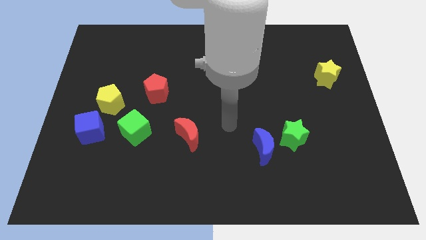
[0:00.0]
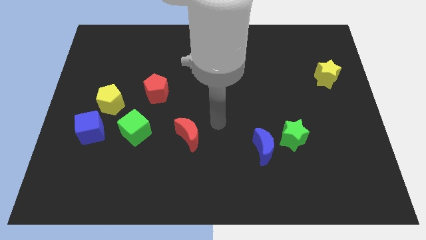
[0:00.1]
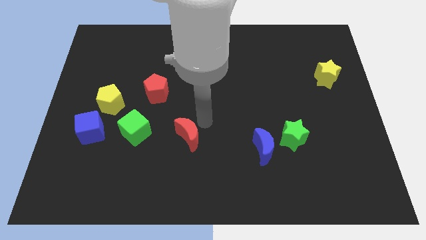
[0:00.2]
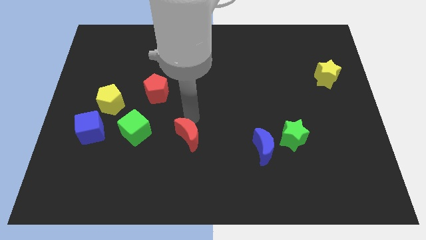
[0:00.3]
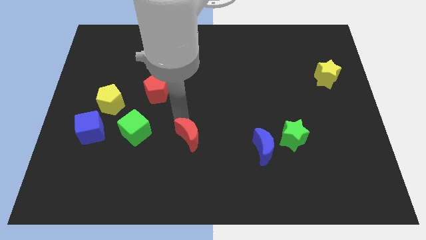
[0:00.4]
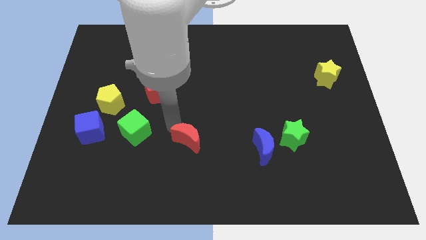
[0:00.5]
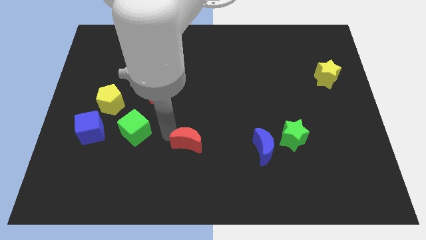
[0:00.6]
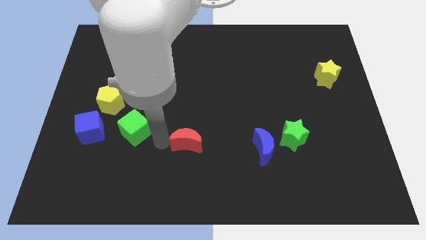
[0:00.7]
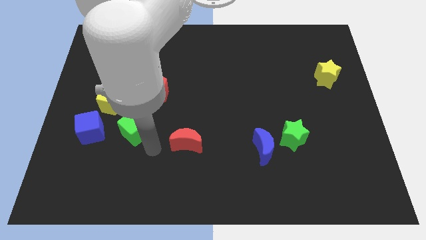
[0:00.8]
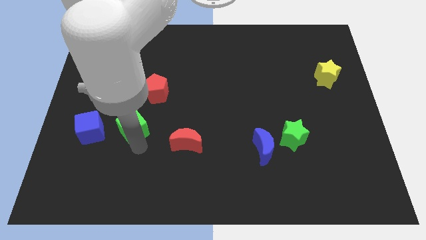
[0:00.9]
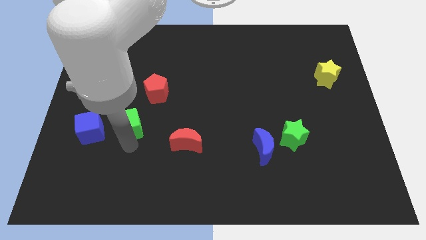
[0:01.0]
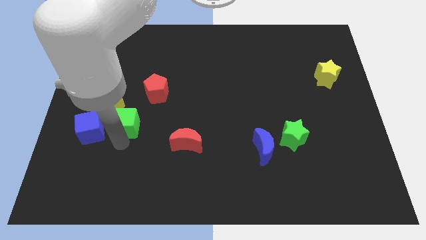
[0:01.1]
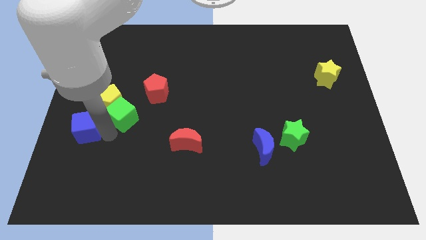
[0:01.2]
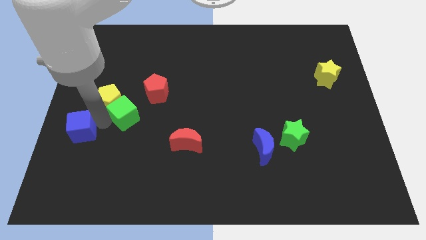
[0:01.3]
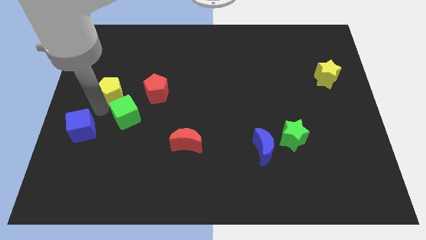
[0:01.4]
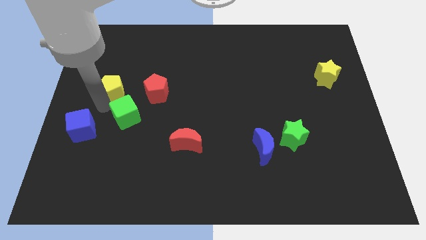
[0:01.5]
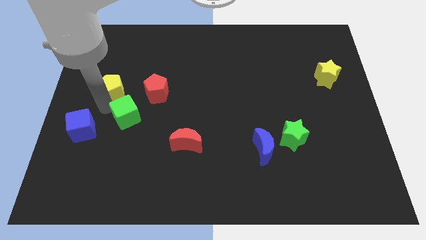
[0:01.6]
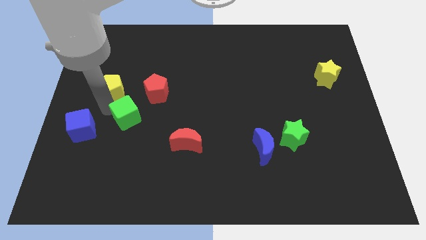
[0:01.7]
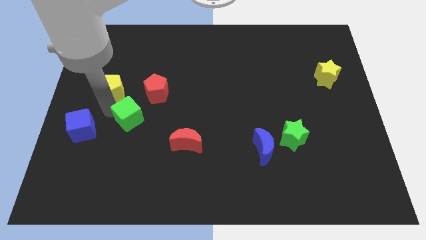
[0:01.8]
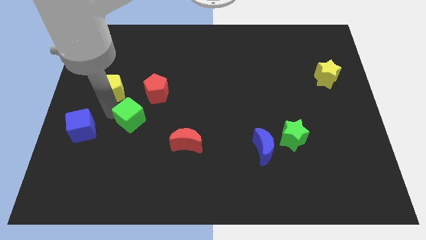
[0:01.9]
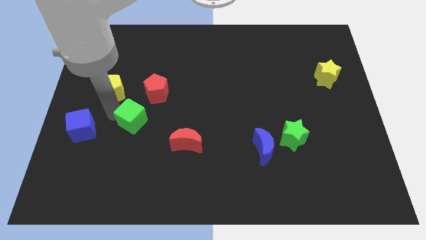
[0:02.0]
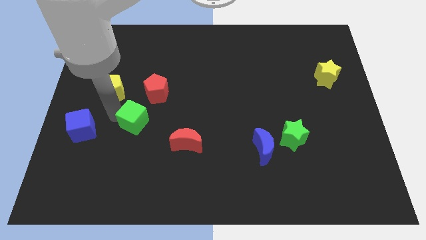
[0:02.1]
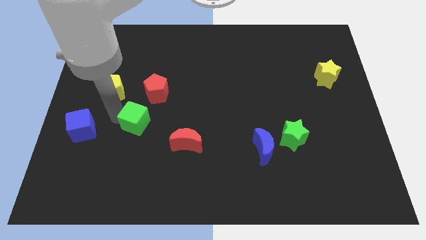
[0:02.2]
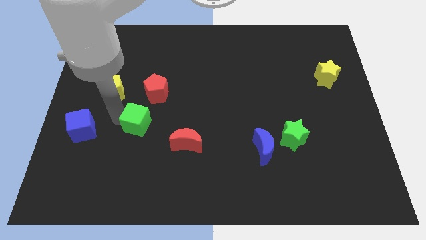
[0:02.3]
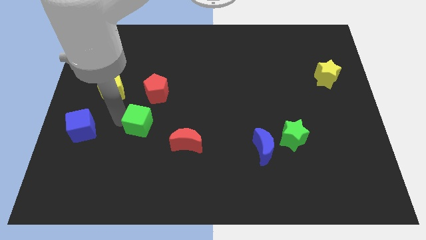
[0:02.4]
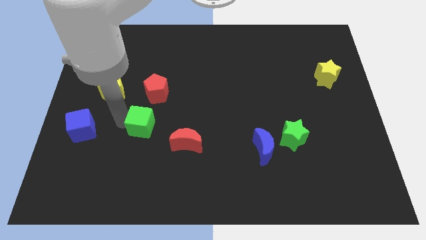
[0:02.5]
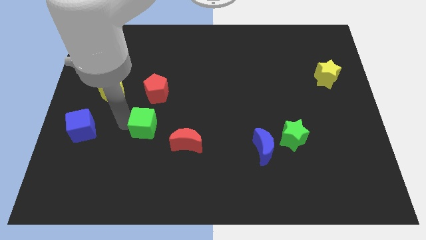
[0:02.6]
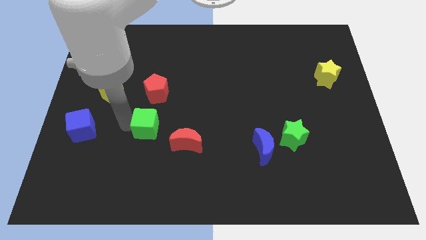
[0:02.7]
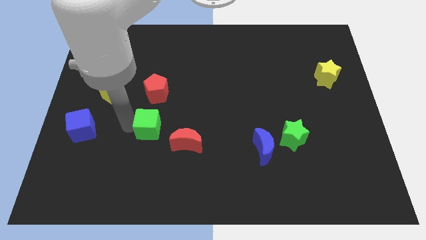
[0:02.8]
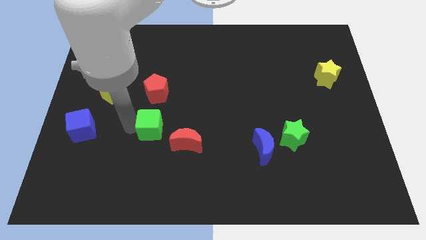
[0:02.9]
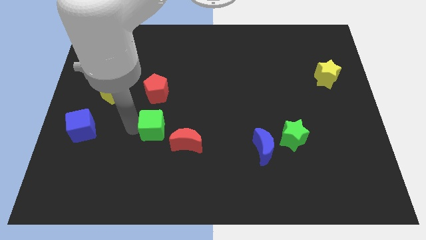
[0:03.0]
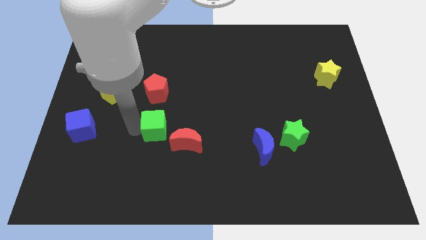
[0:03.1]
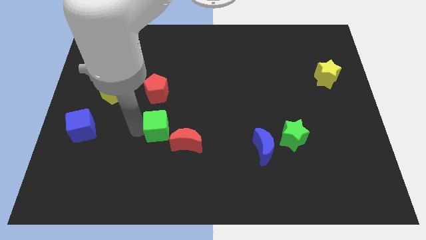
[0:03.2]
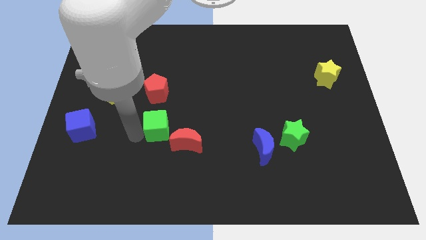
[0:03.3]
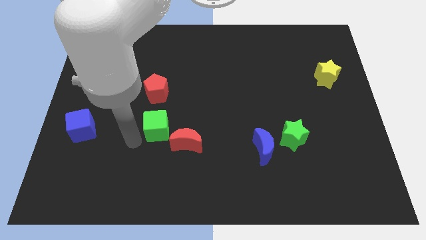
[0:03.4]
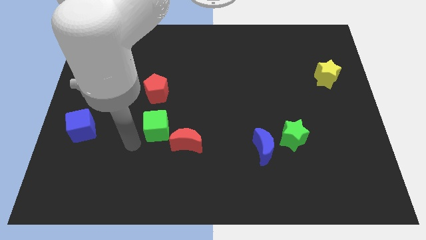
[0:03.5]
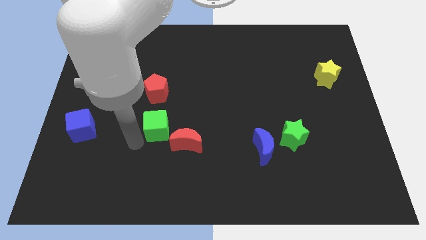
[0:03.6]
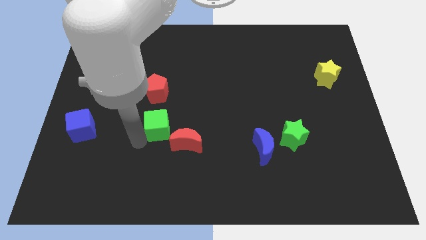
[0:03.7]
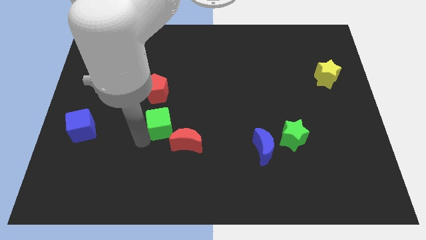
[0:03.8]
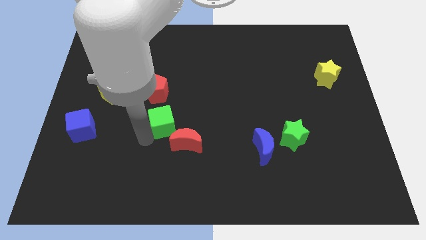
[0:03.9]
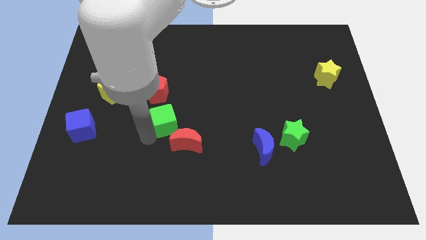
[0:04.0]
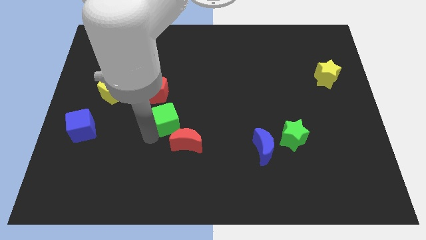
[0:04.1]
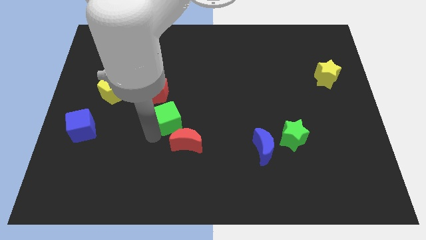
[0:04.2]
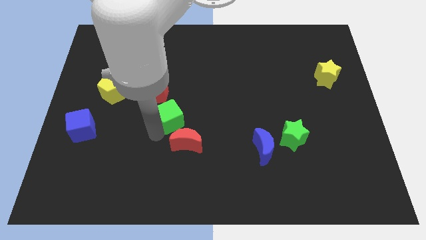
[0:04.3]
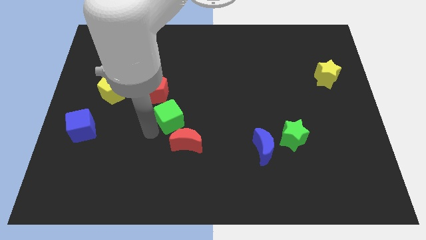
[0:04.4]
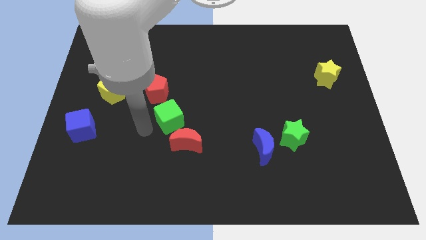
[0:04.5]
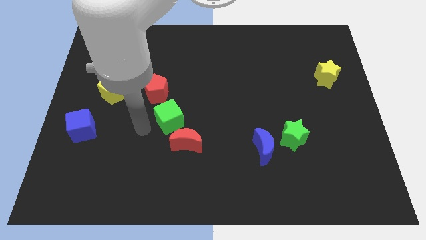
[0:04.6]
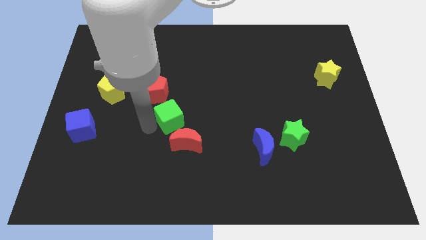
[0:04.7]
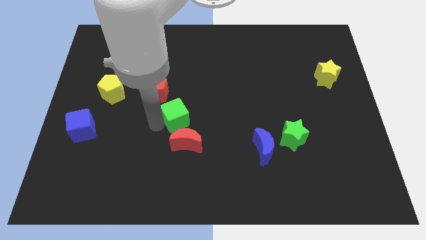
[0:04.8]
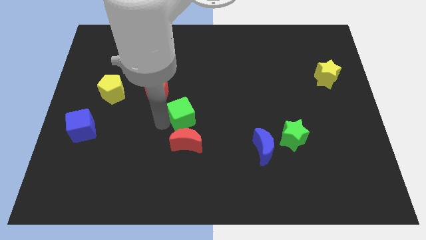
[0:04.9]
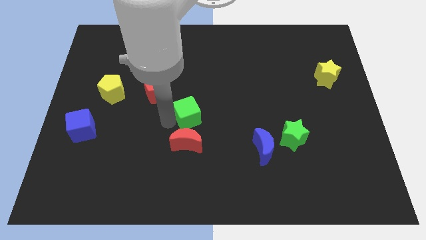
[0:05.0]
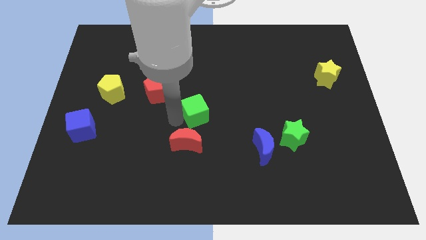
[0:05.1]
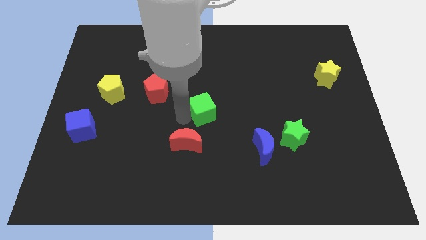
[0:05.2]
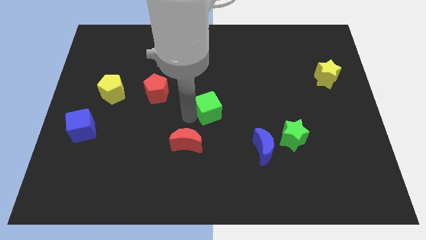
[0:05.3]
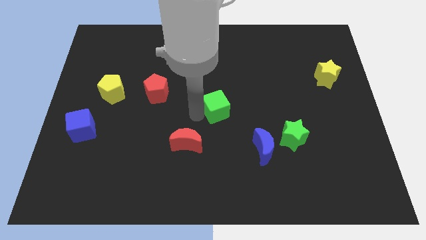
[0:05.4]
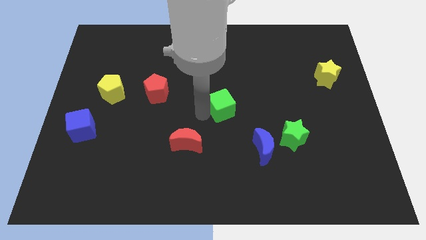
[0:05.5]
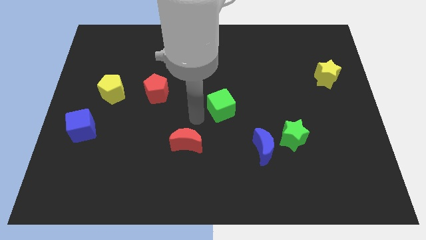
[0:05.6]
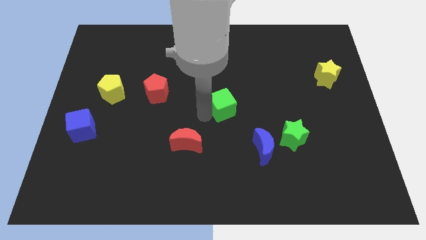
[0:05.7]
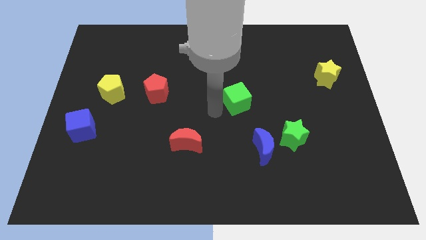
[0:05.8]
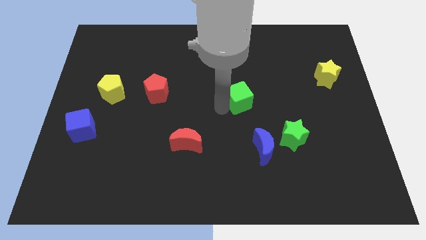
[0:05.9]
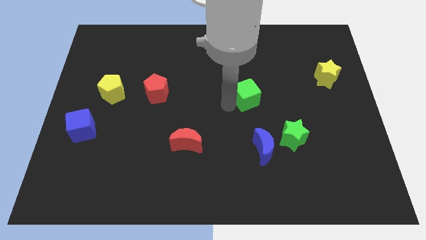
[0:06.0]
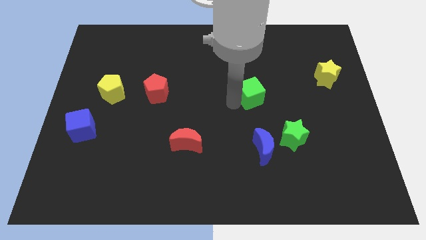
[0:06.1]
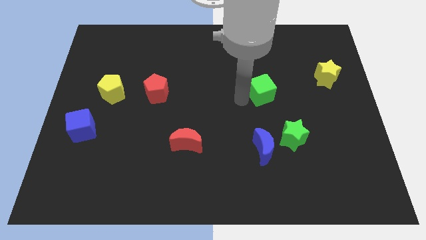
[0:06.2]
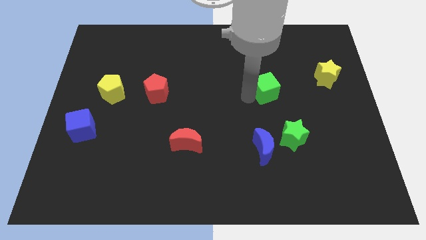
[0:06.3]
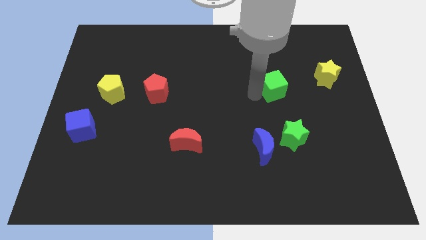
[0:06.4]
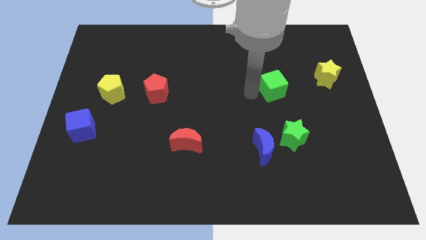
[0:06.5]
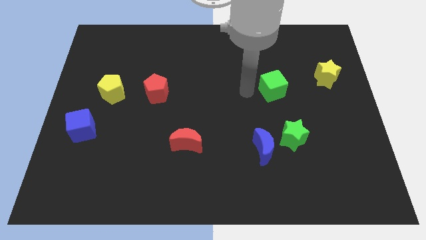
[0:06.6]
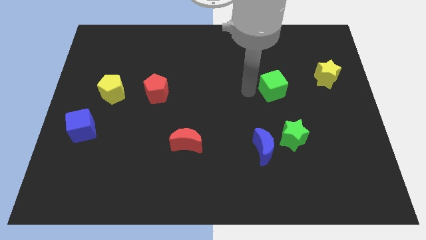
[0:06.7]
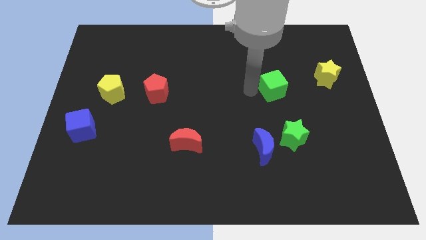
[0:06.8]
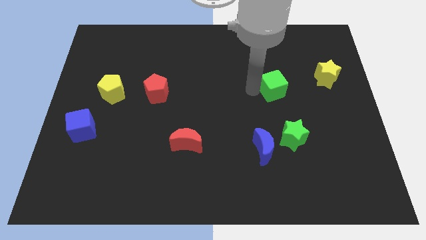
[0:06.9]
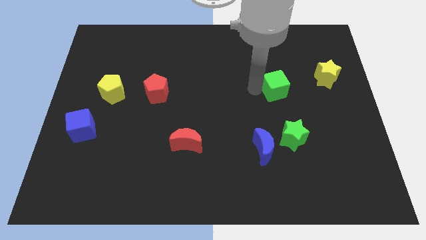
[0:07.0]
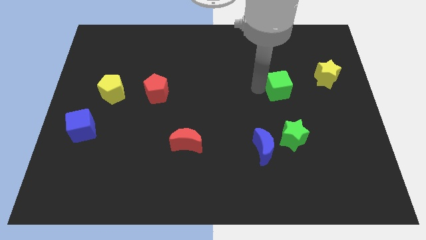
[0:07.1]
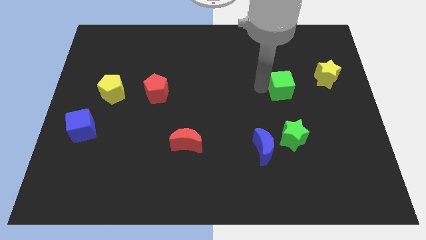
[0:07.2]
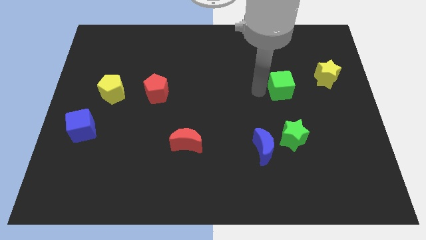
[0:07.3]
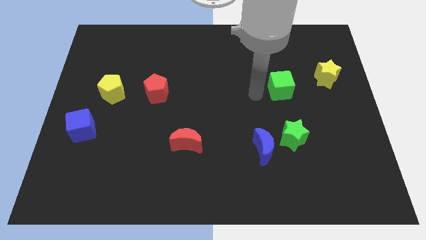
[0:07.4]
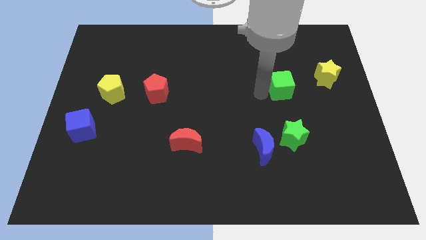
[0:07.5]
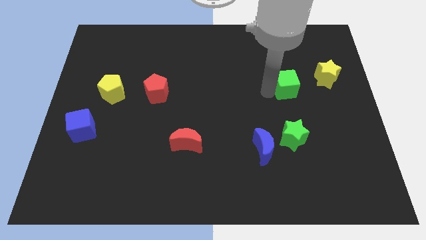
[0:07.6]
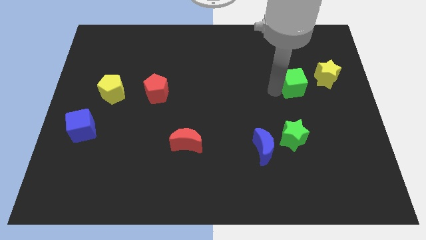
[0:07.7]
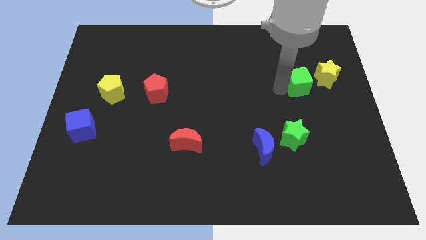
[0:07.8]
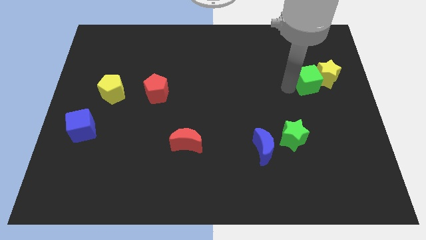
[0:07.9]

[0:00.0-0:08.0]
move the green cube to the yellow star
